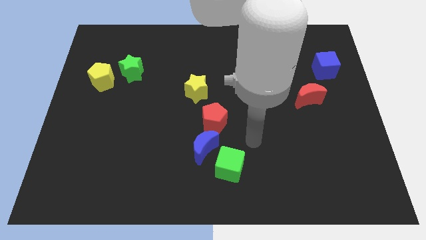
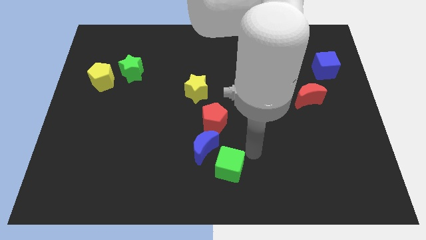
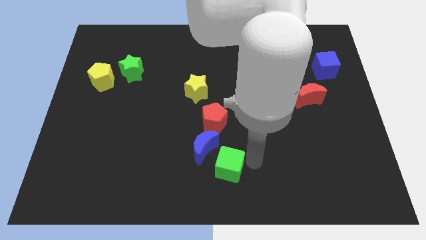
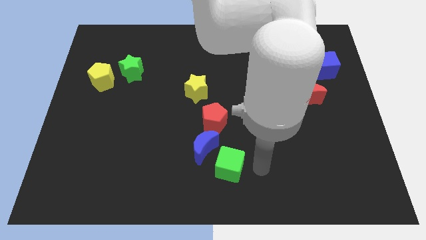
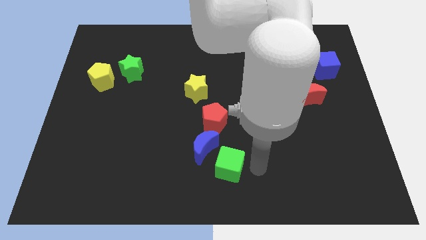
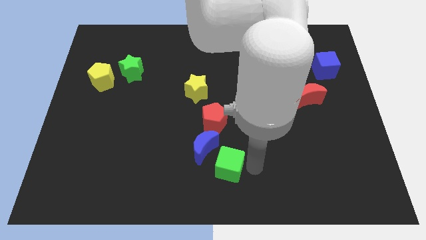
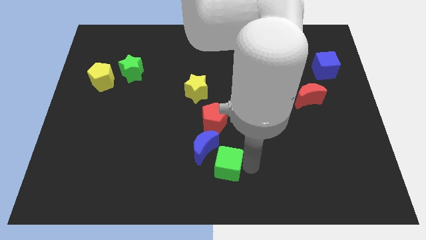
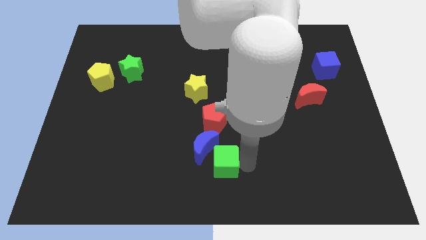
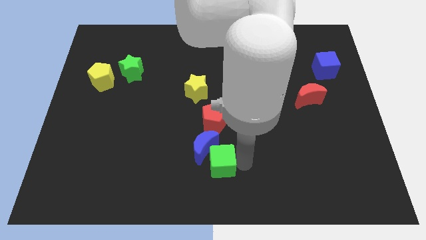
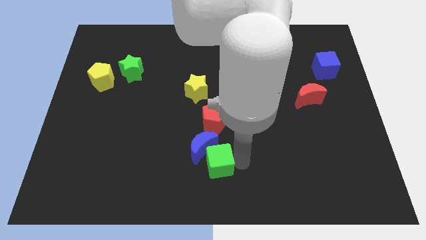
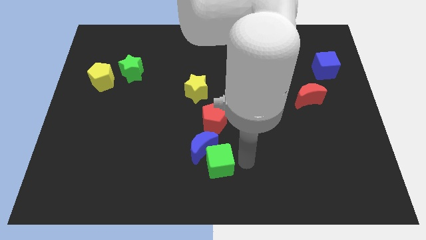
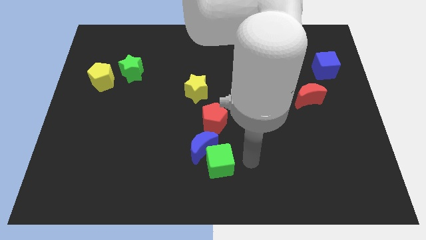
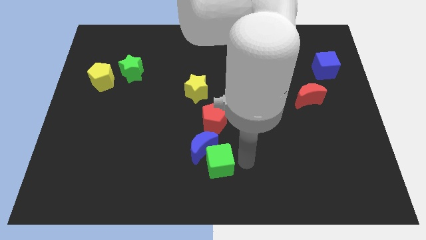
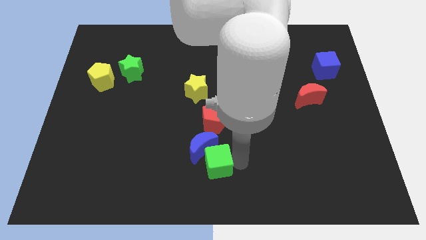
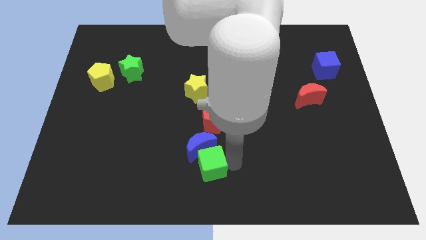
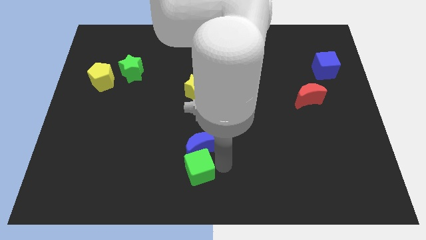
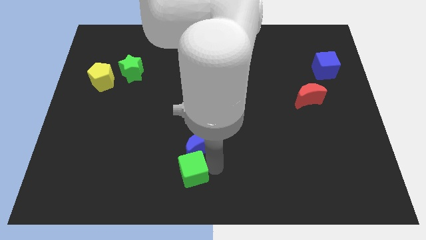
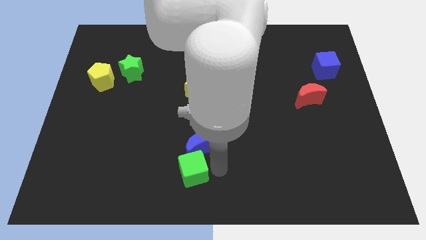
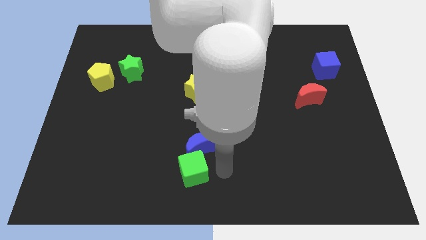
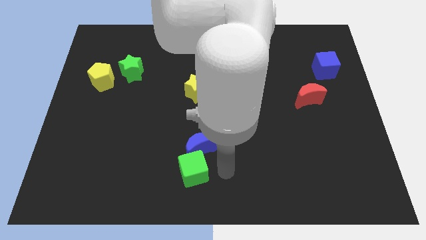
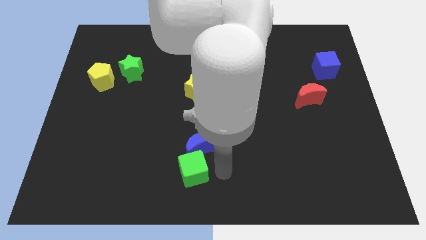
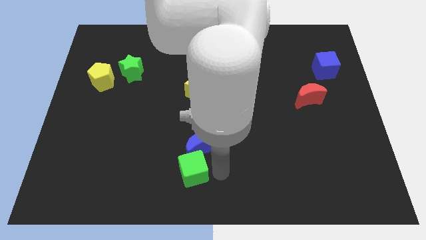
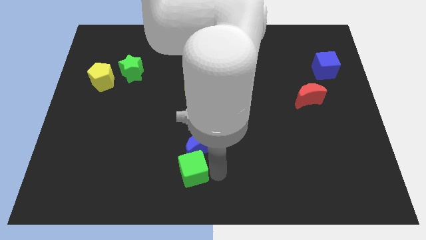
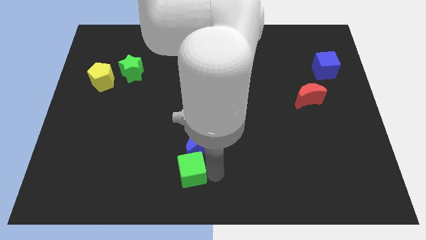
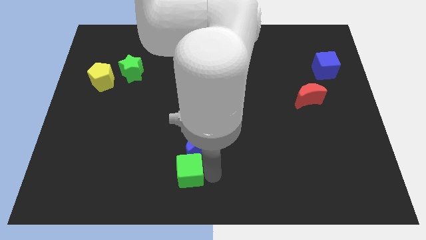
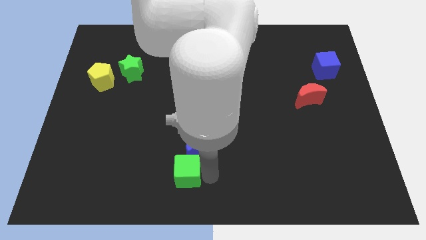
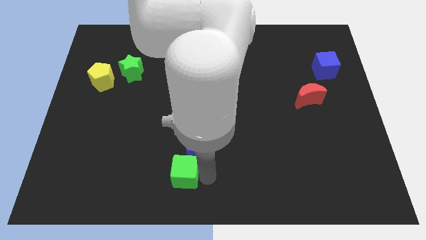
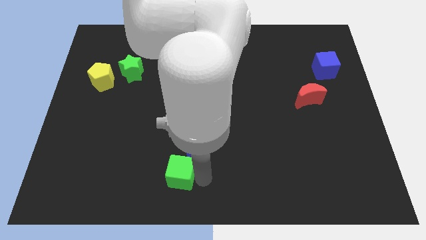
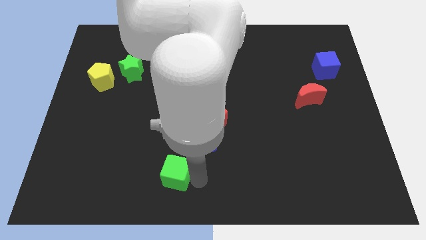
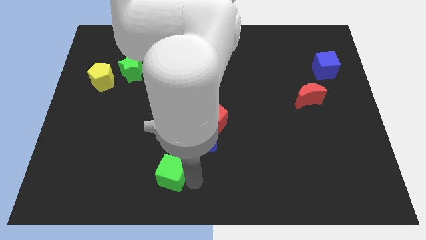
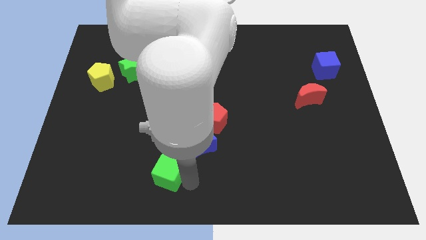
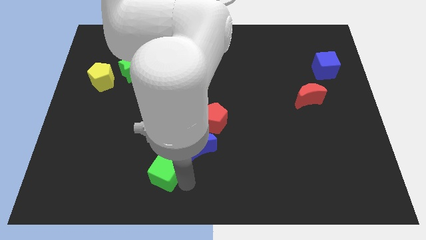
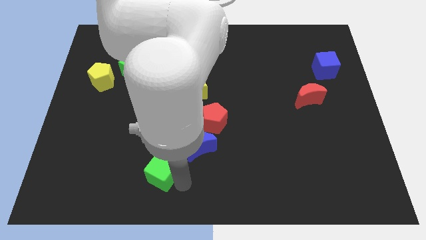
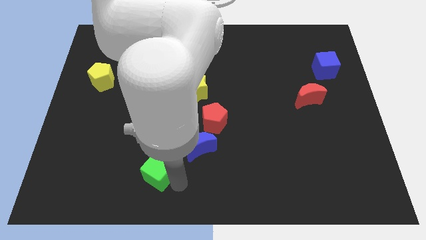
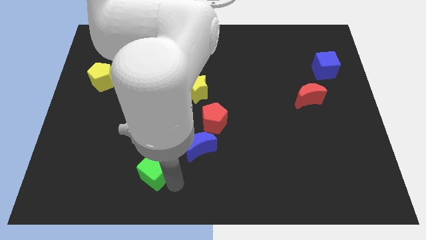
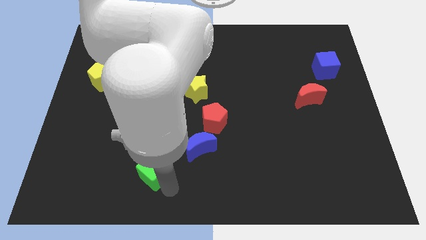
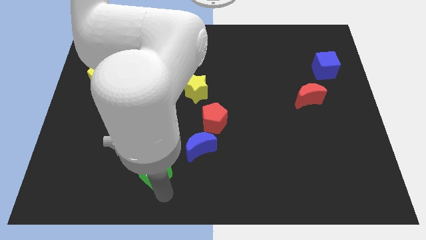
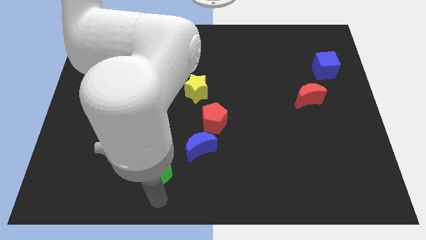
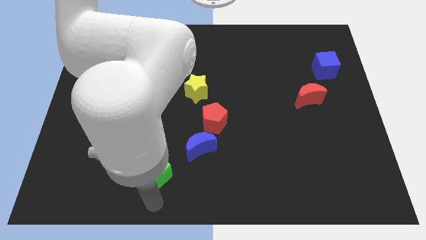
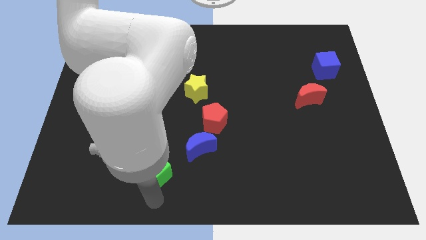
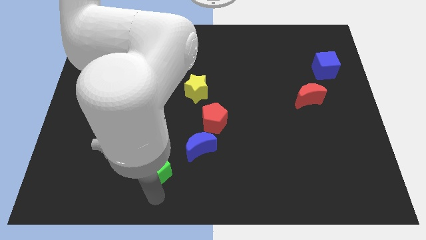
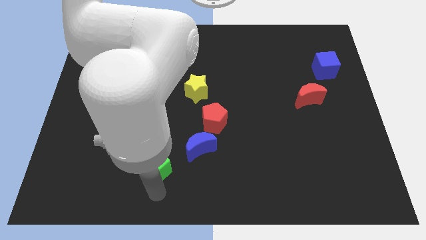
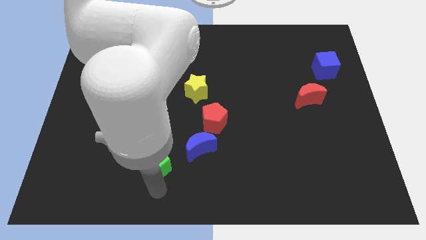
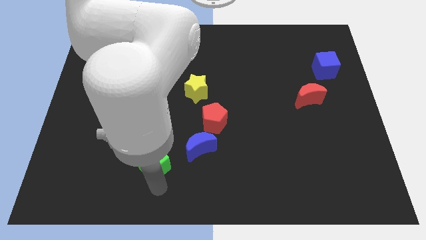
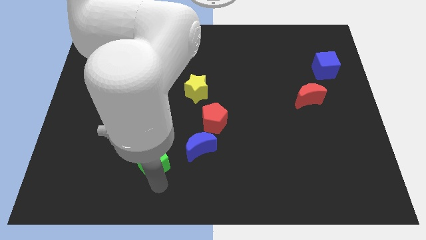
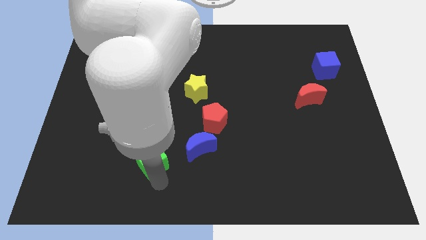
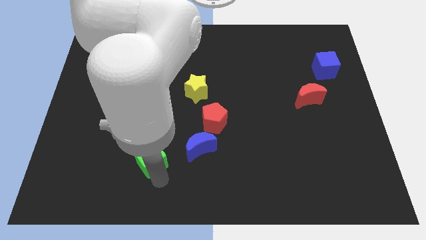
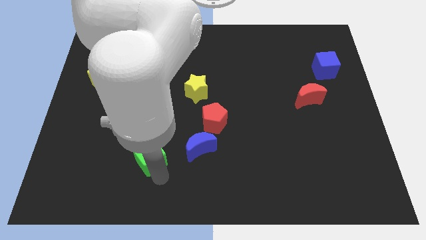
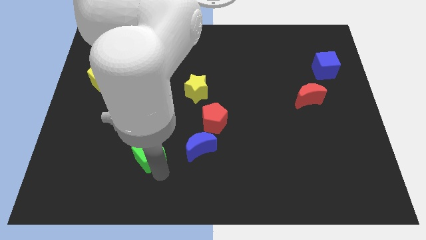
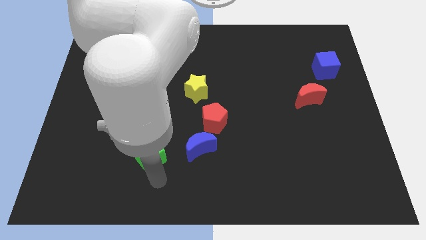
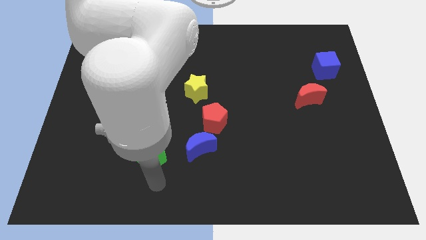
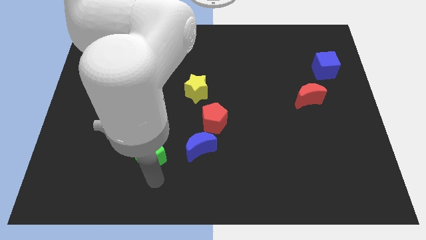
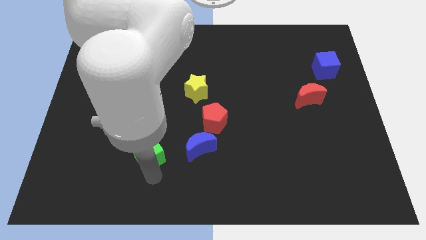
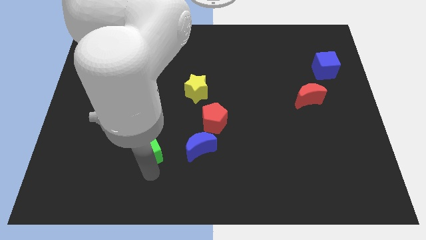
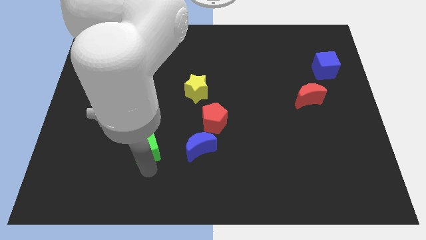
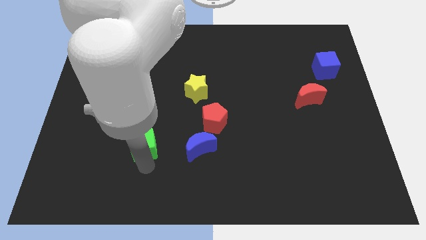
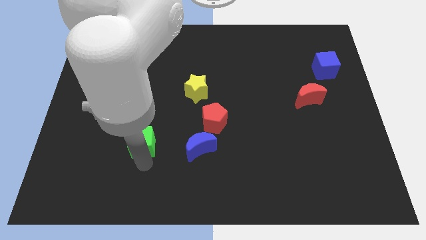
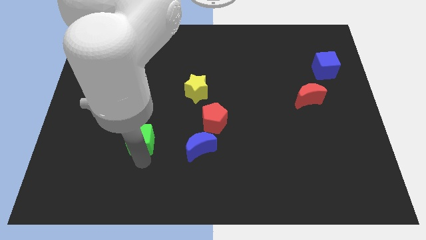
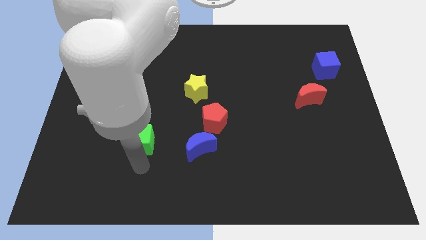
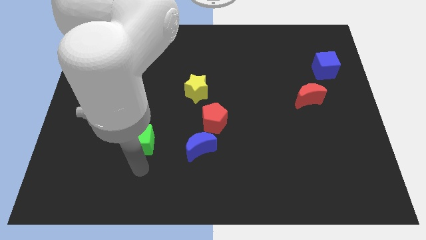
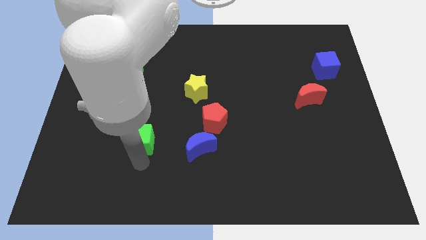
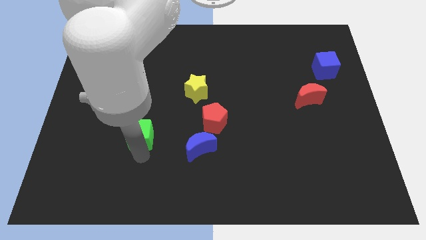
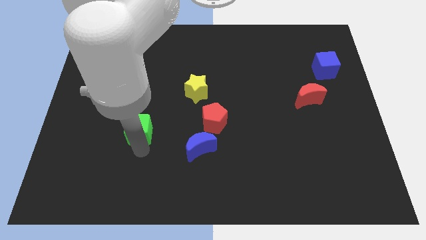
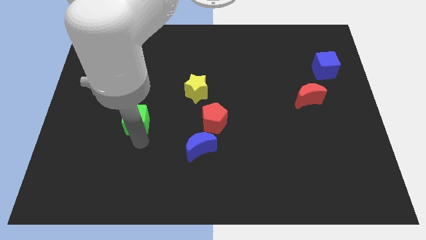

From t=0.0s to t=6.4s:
slide the green cube up and to the left

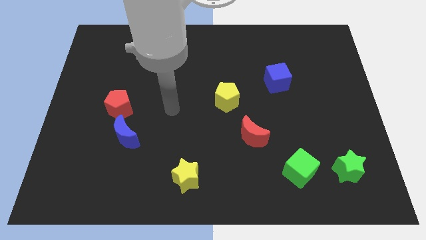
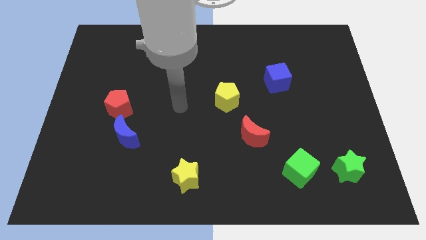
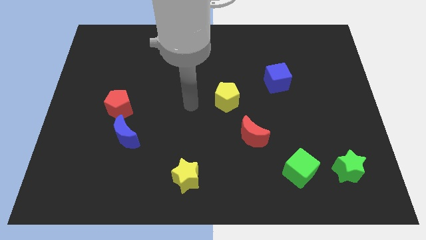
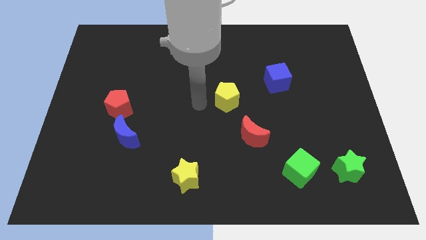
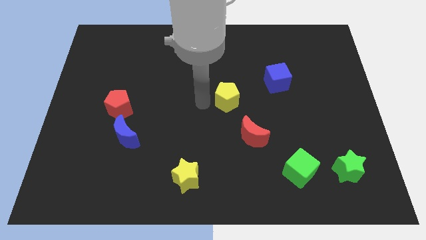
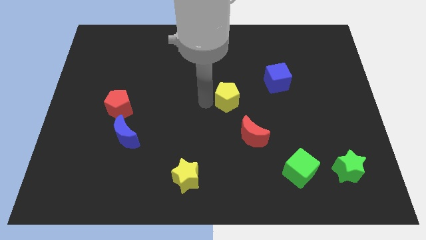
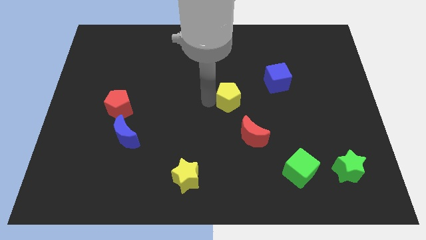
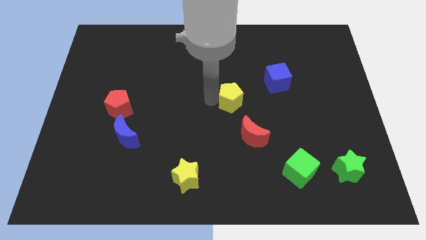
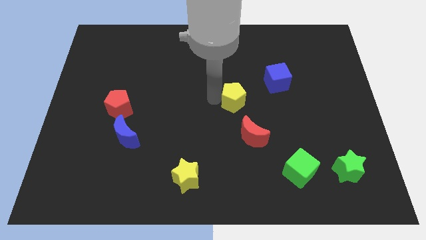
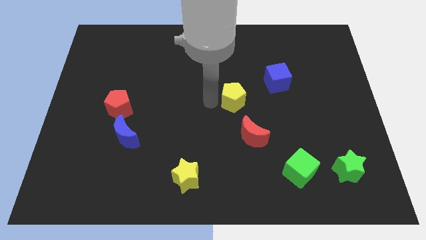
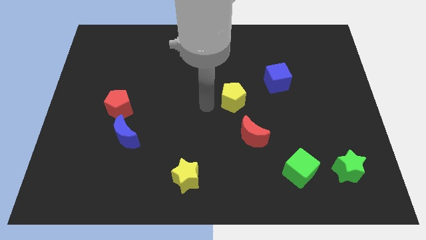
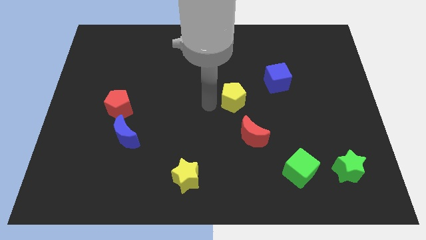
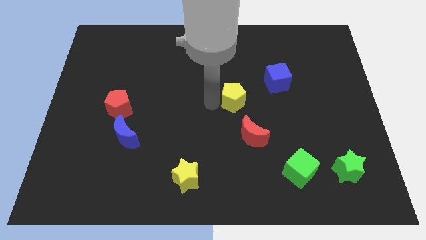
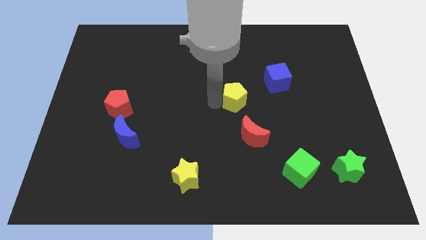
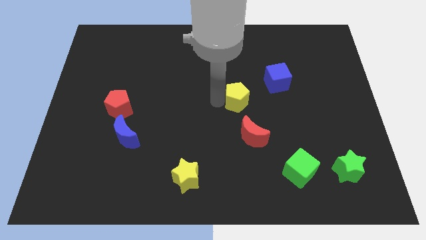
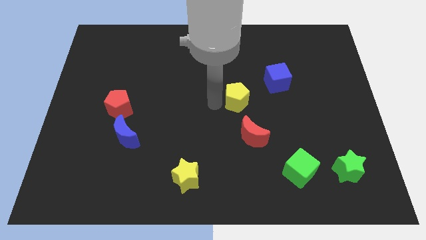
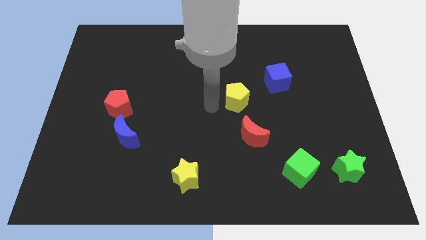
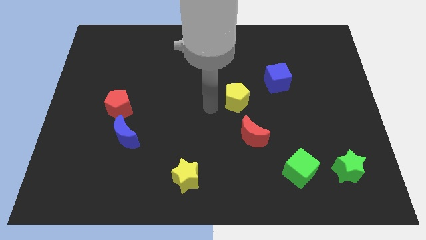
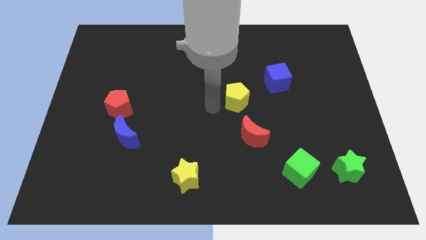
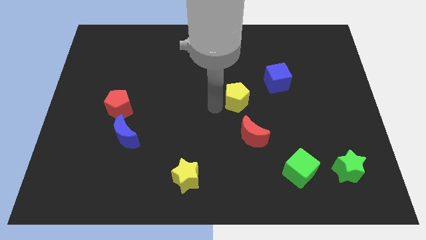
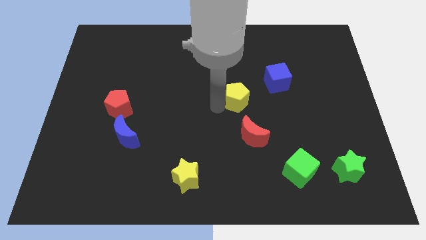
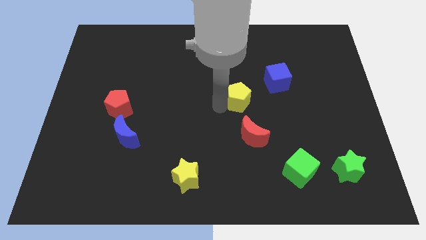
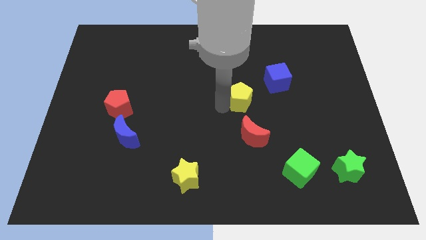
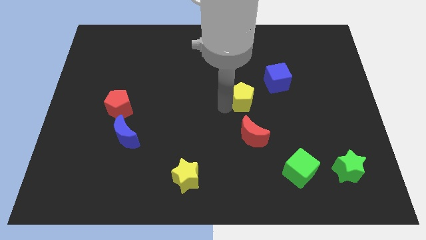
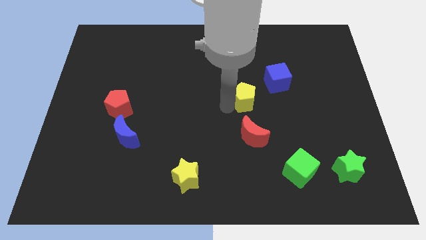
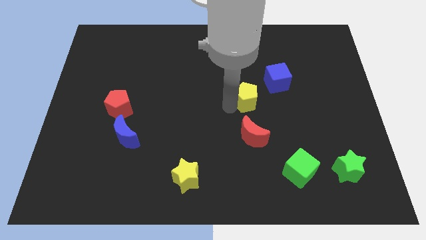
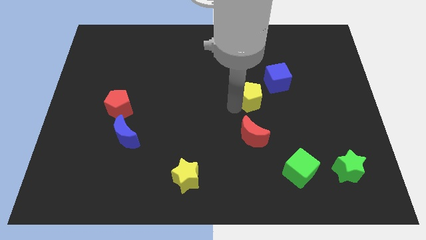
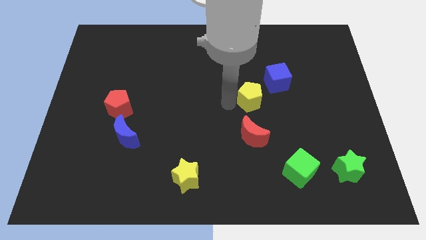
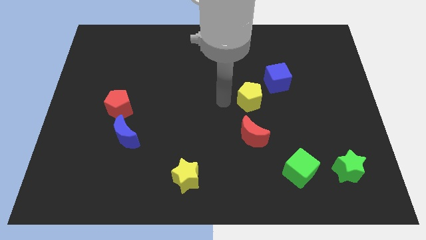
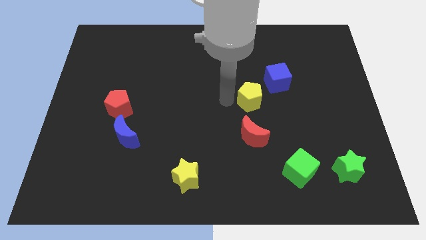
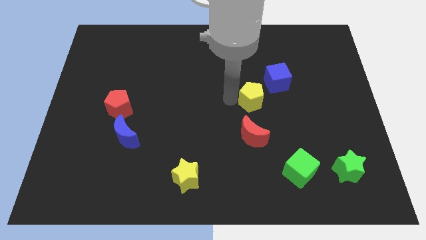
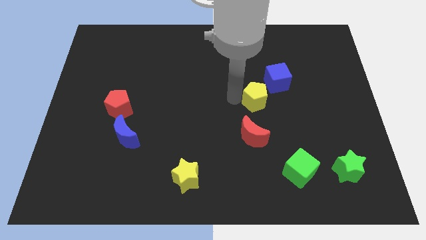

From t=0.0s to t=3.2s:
slide the yellow pentagon right a little
